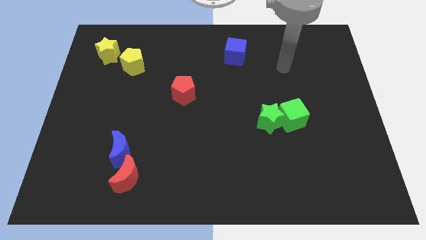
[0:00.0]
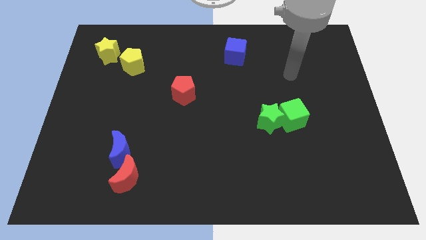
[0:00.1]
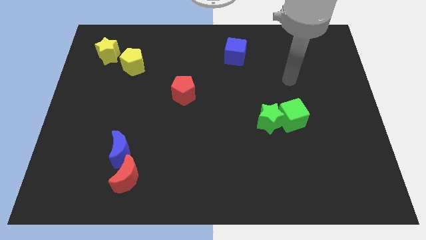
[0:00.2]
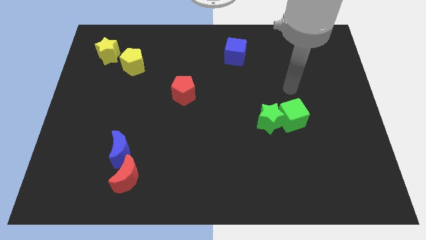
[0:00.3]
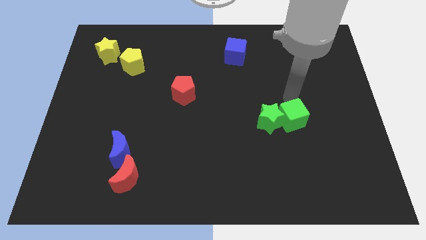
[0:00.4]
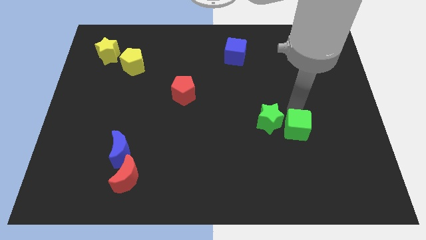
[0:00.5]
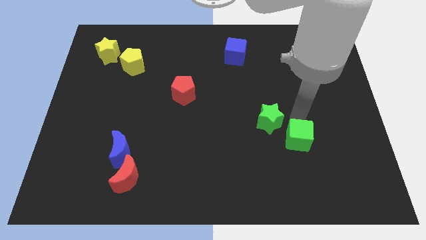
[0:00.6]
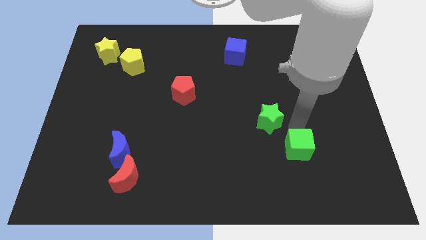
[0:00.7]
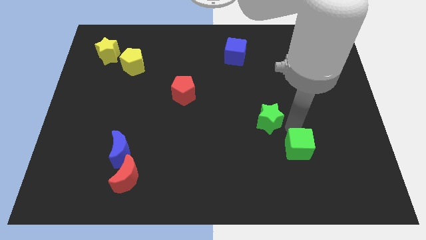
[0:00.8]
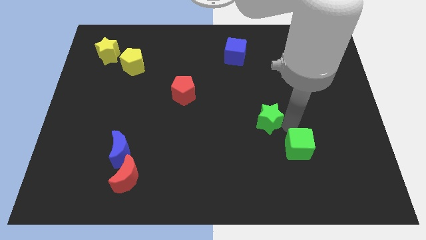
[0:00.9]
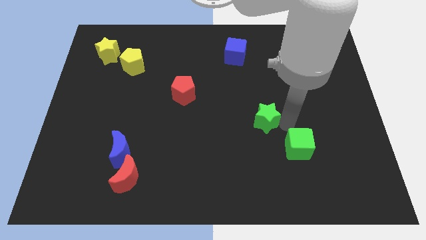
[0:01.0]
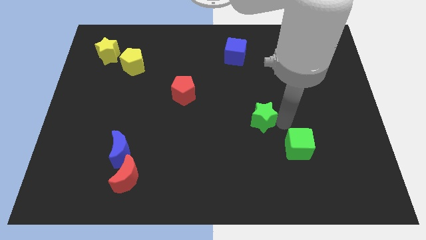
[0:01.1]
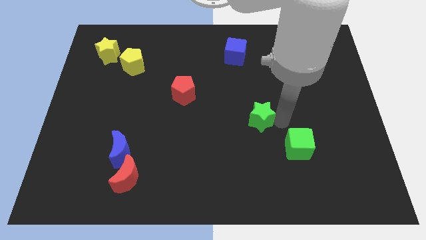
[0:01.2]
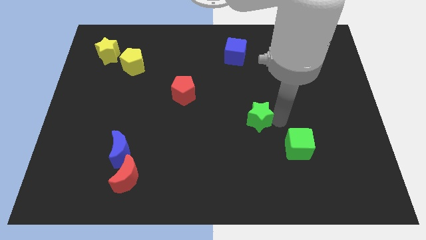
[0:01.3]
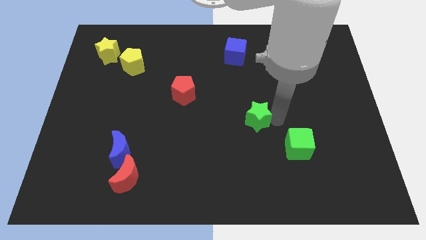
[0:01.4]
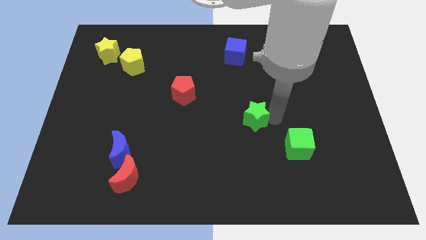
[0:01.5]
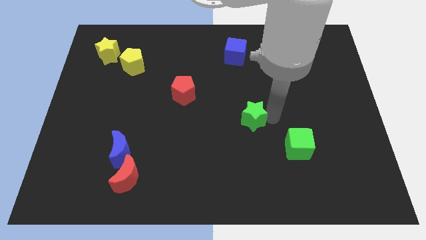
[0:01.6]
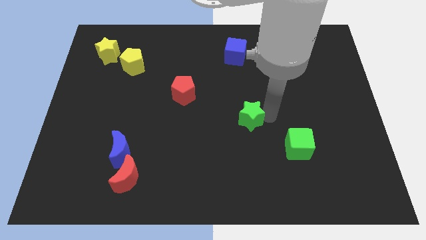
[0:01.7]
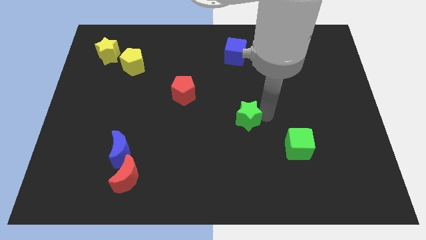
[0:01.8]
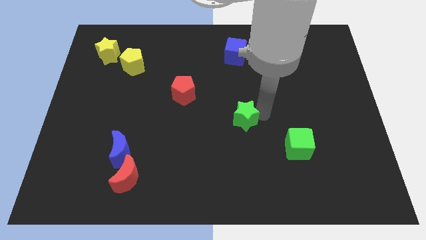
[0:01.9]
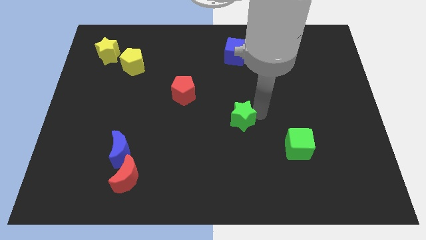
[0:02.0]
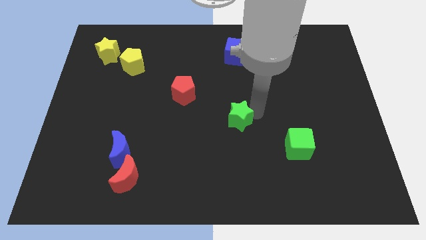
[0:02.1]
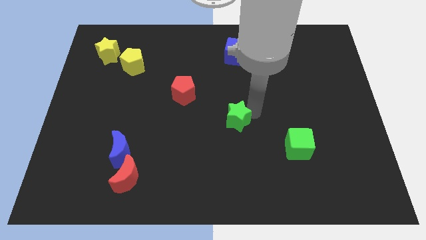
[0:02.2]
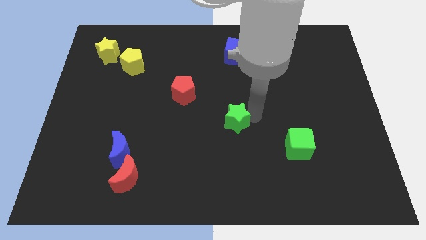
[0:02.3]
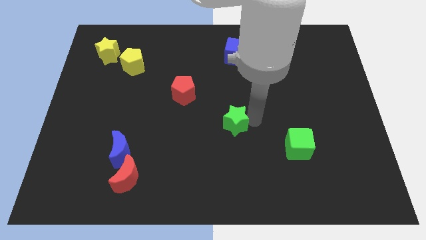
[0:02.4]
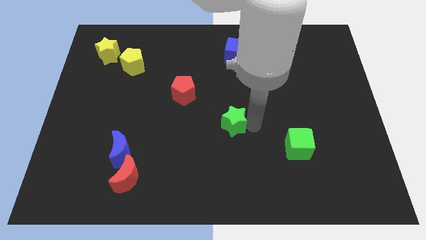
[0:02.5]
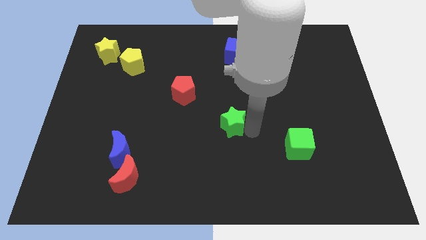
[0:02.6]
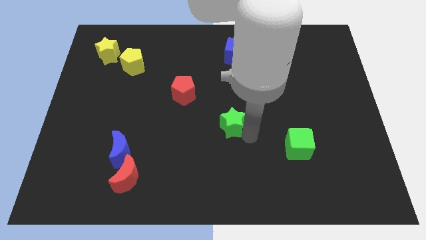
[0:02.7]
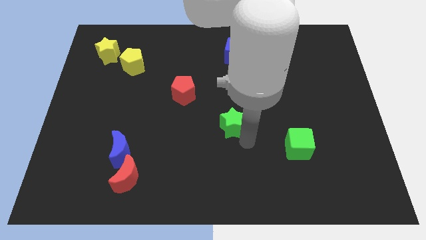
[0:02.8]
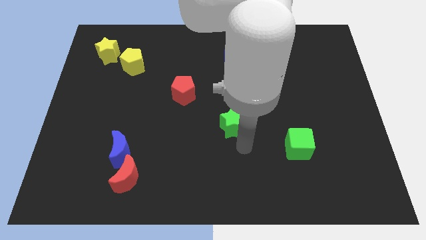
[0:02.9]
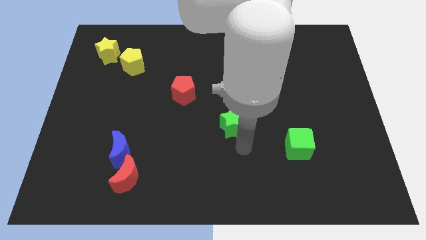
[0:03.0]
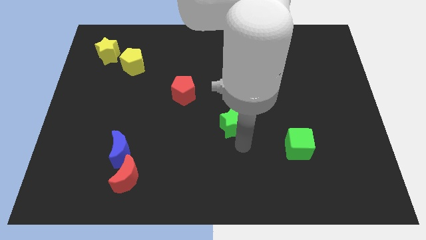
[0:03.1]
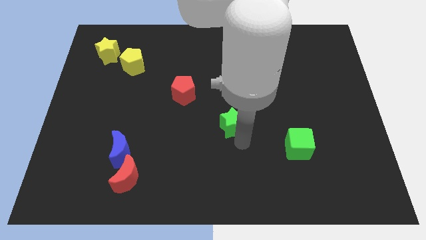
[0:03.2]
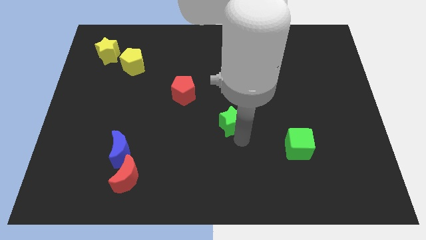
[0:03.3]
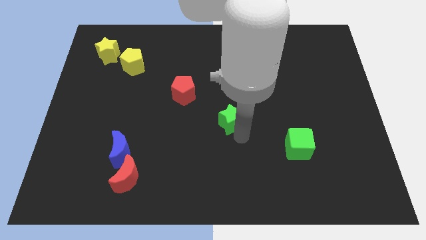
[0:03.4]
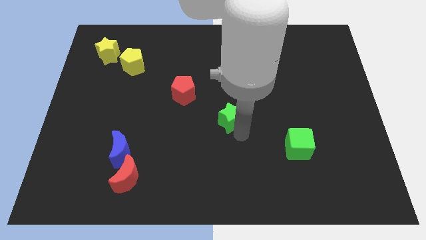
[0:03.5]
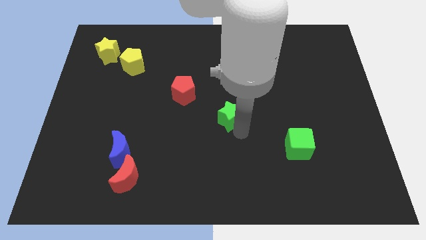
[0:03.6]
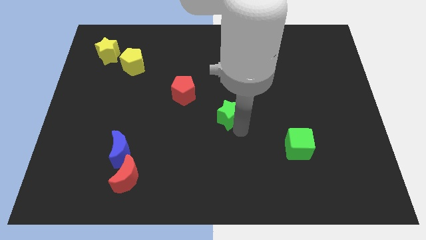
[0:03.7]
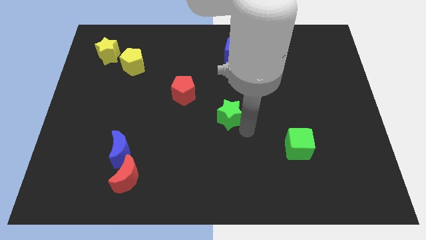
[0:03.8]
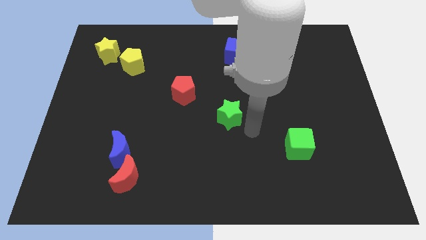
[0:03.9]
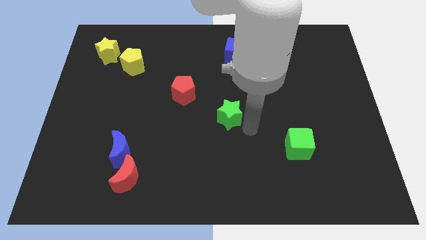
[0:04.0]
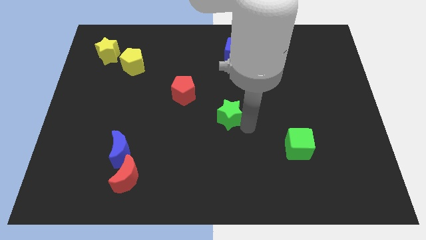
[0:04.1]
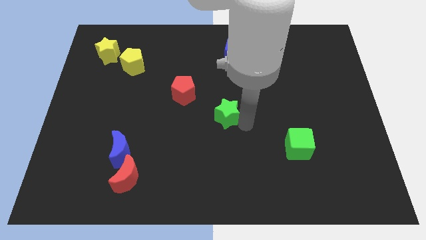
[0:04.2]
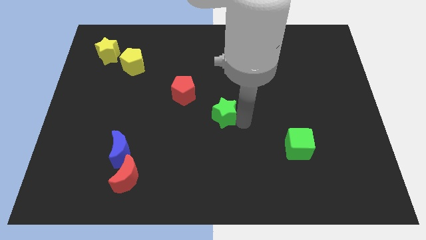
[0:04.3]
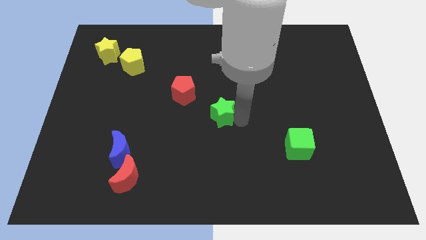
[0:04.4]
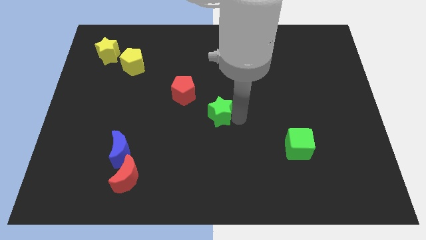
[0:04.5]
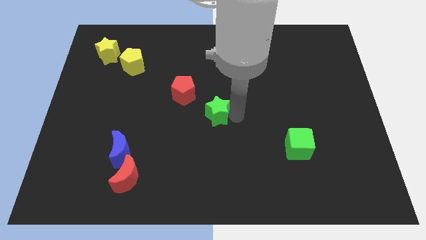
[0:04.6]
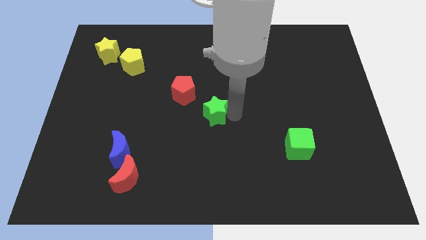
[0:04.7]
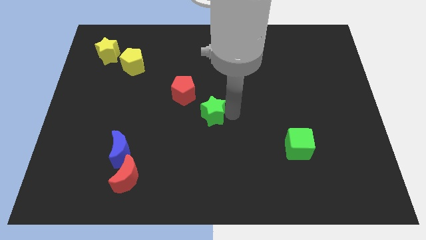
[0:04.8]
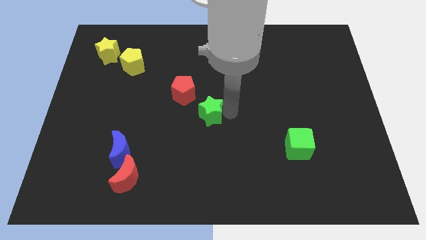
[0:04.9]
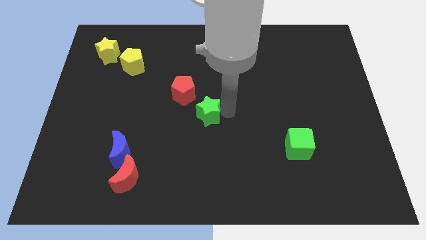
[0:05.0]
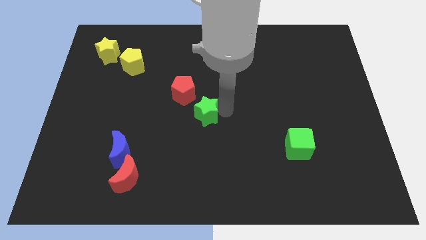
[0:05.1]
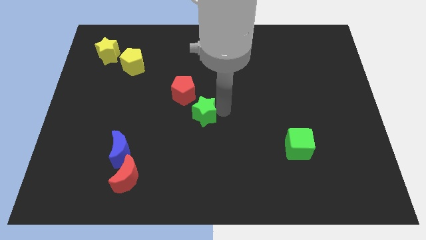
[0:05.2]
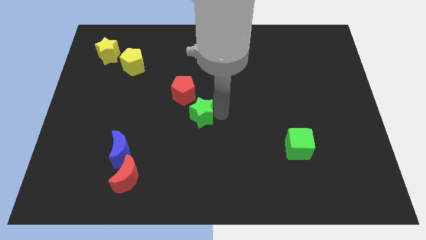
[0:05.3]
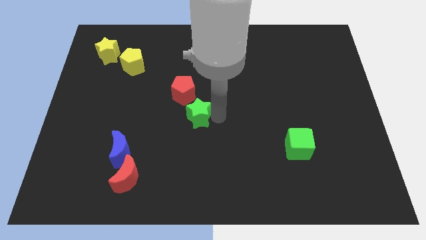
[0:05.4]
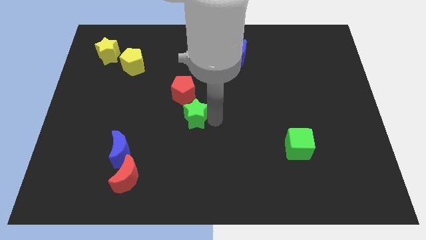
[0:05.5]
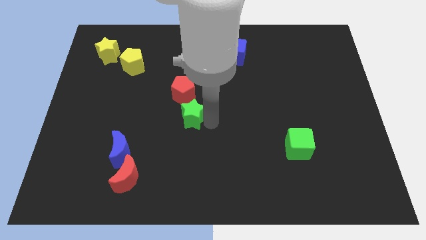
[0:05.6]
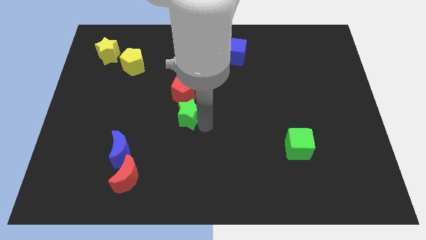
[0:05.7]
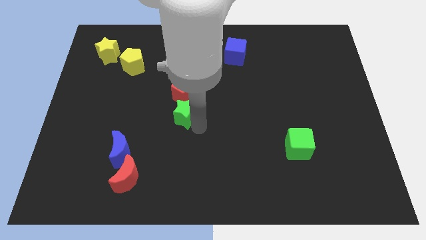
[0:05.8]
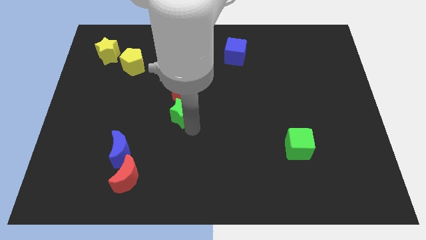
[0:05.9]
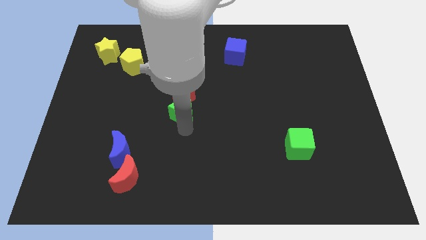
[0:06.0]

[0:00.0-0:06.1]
slide the green star towards the red pentagon
